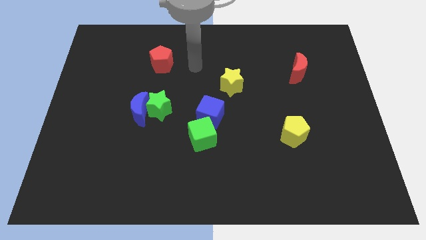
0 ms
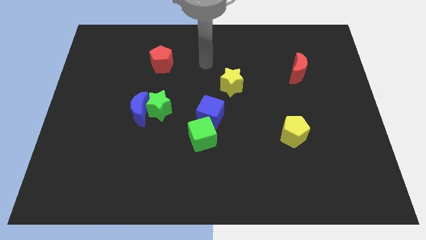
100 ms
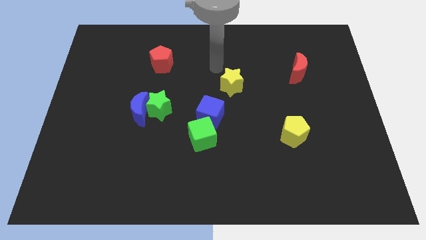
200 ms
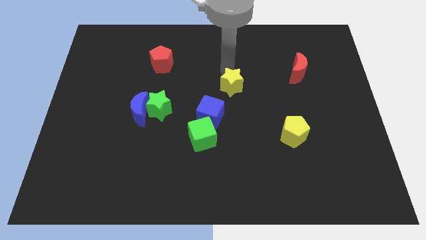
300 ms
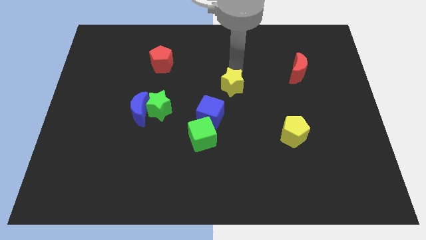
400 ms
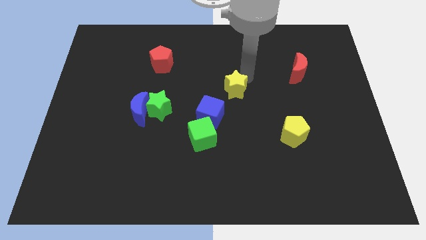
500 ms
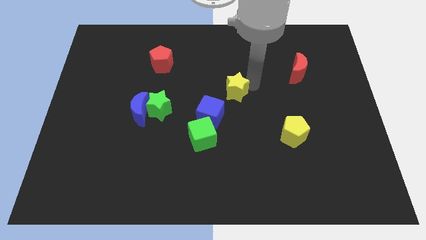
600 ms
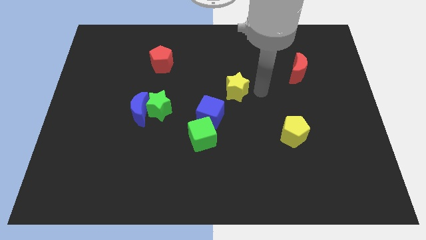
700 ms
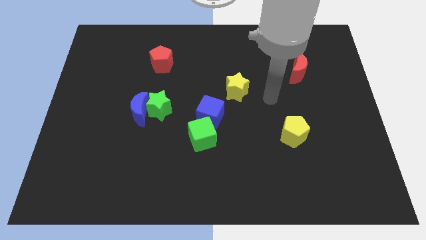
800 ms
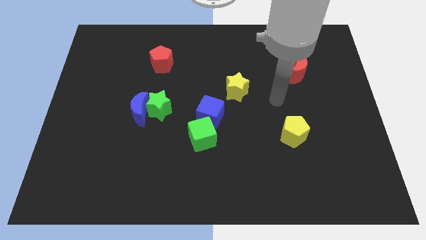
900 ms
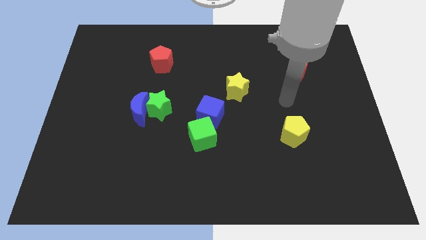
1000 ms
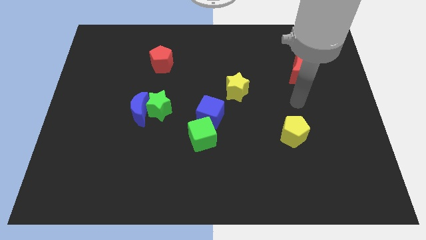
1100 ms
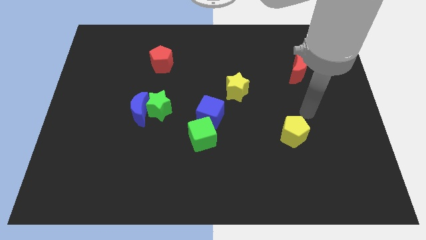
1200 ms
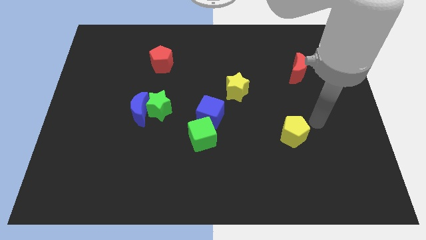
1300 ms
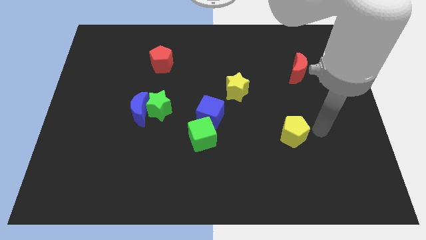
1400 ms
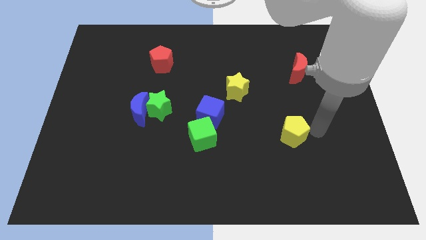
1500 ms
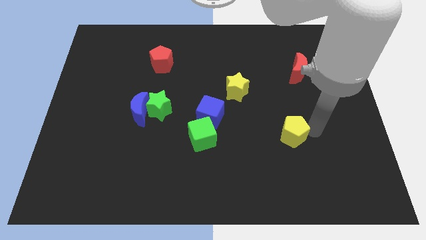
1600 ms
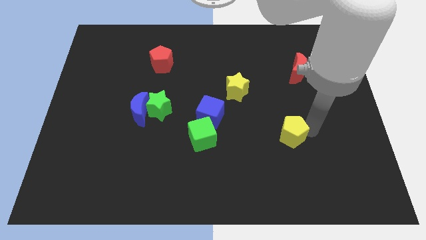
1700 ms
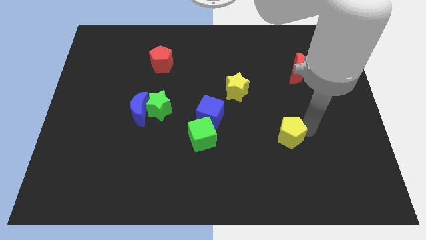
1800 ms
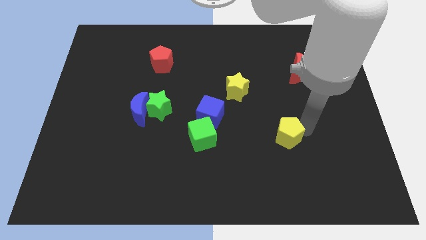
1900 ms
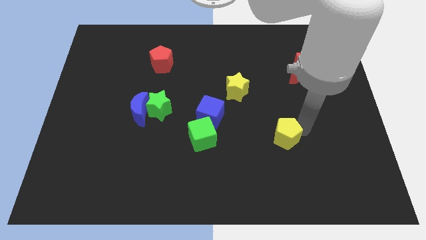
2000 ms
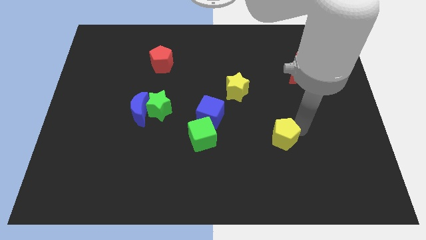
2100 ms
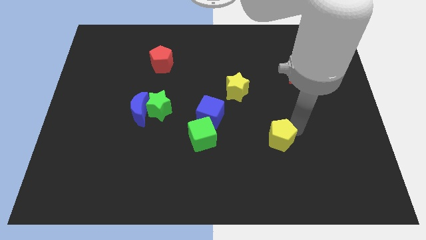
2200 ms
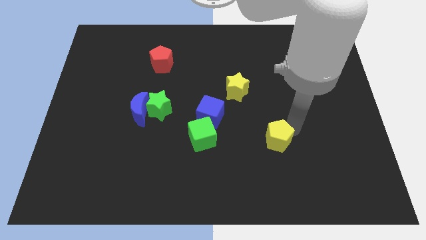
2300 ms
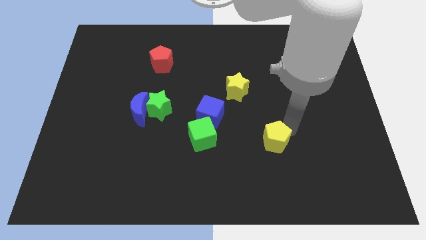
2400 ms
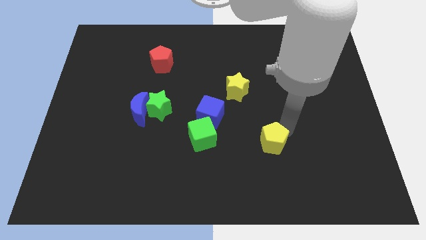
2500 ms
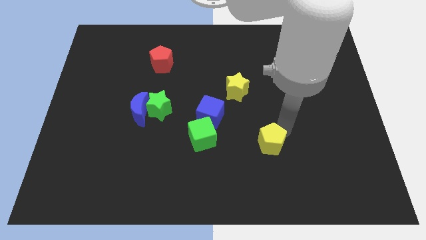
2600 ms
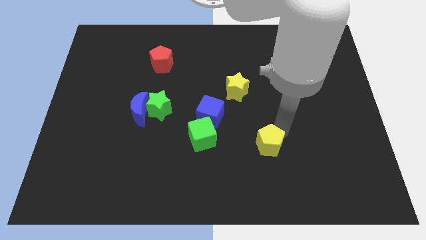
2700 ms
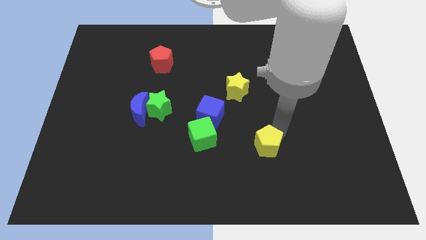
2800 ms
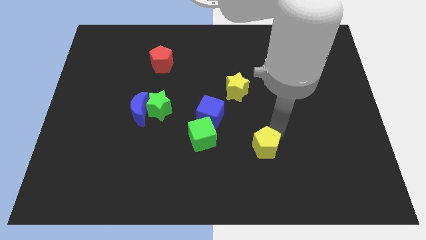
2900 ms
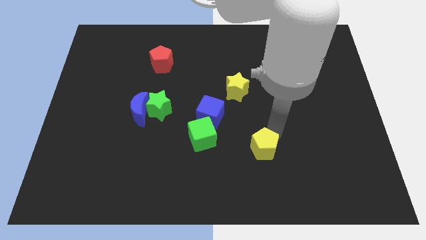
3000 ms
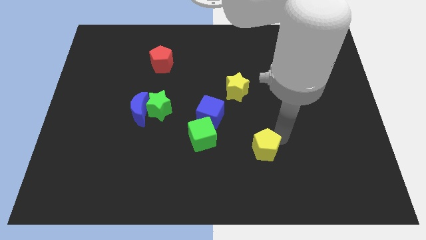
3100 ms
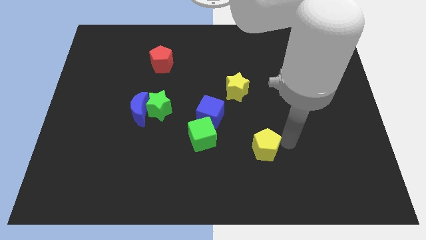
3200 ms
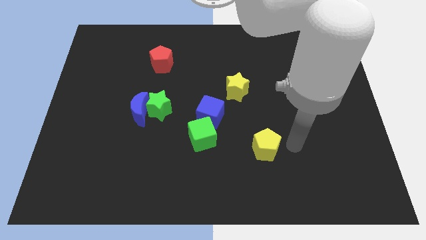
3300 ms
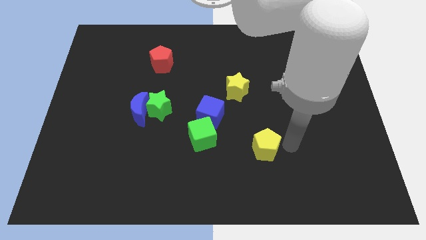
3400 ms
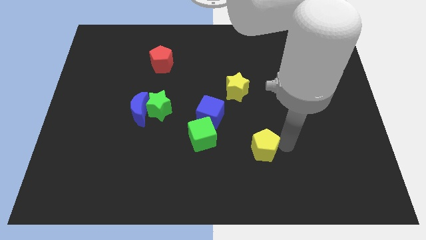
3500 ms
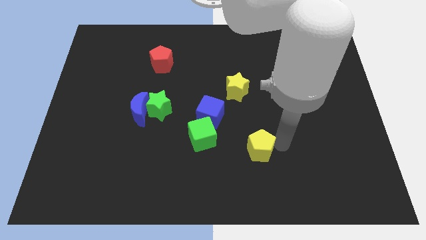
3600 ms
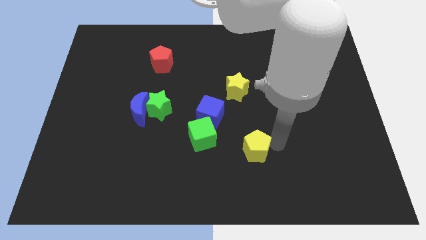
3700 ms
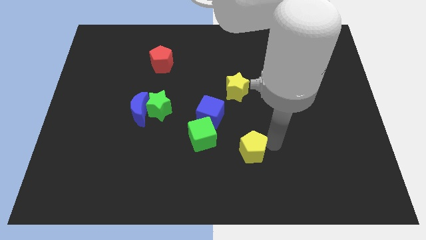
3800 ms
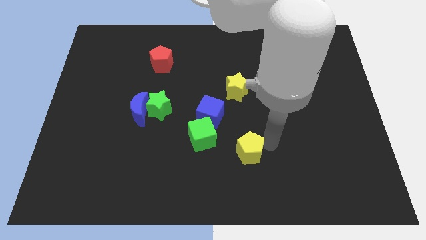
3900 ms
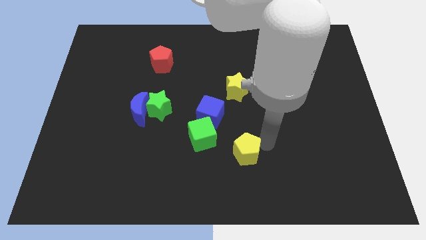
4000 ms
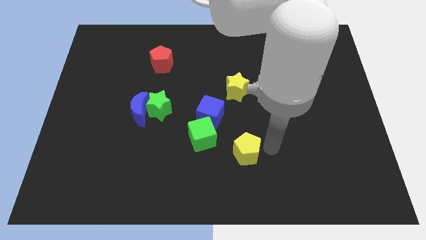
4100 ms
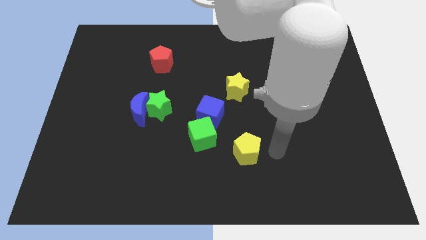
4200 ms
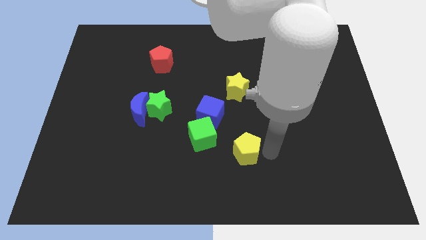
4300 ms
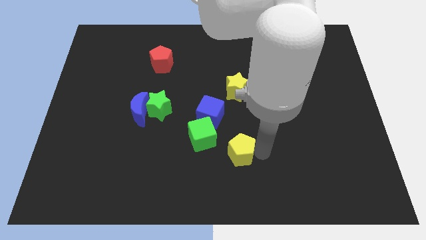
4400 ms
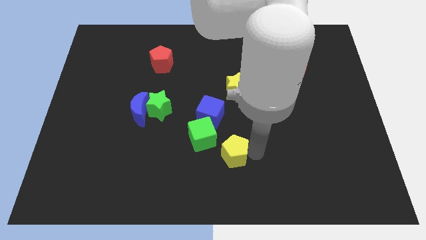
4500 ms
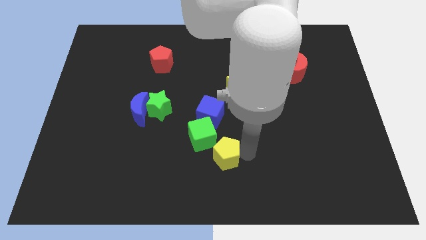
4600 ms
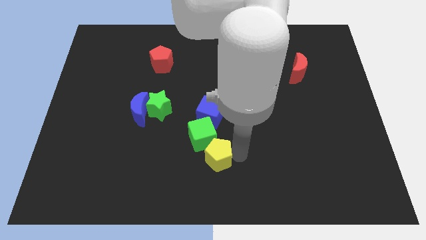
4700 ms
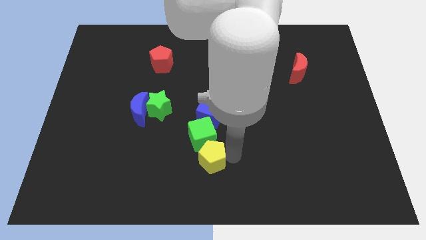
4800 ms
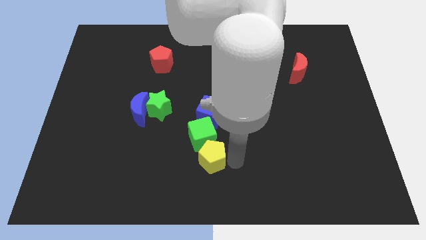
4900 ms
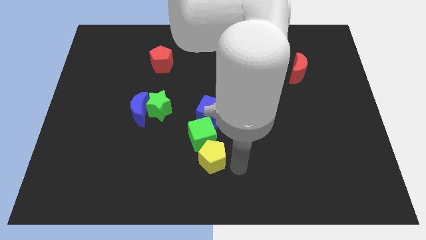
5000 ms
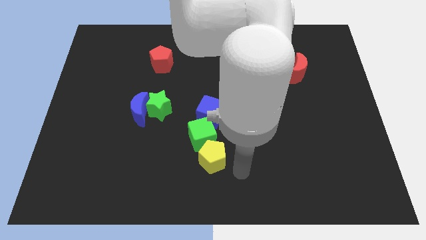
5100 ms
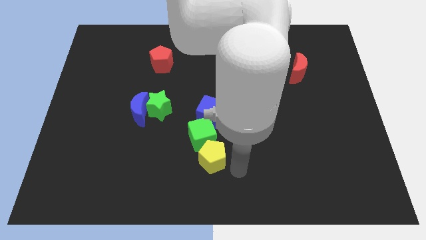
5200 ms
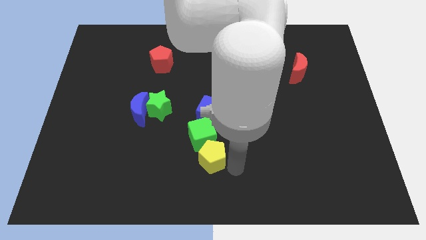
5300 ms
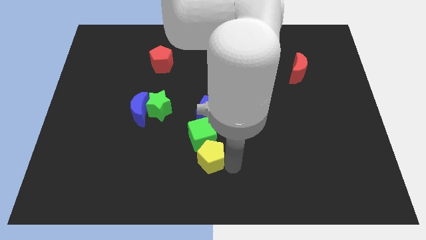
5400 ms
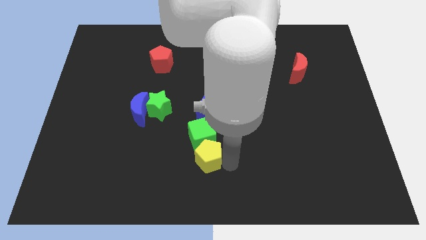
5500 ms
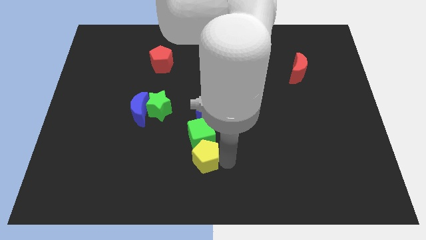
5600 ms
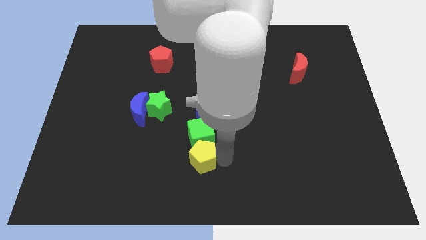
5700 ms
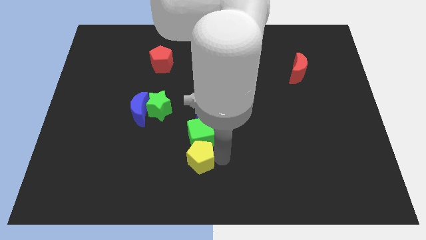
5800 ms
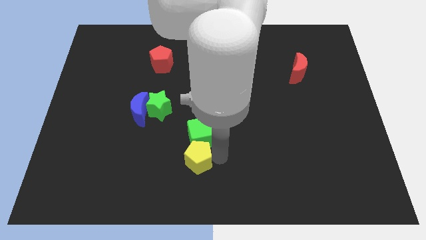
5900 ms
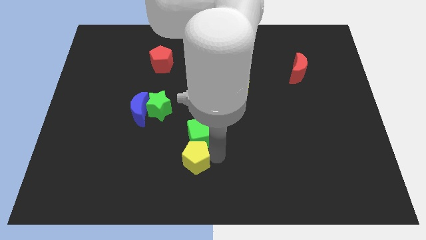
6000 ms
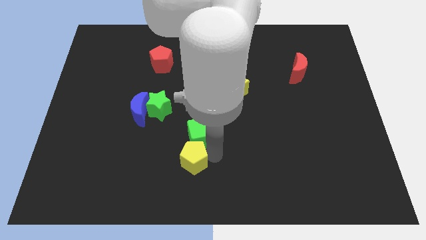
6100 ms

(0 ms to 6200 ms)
push the yellow pentagon to the left

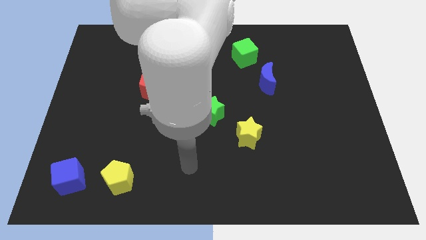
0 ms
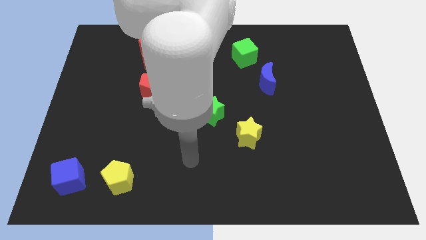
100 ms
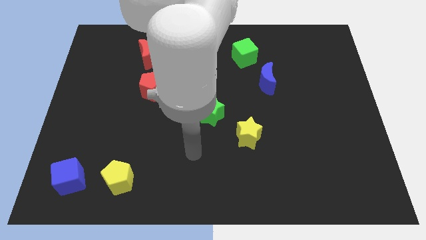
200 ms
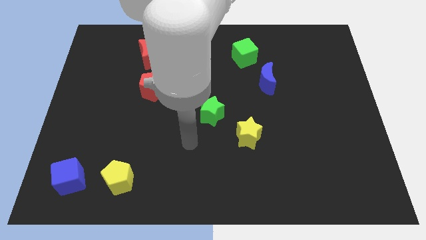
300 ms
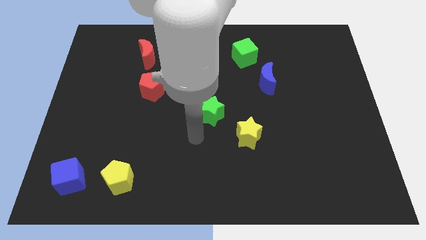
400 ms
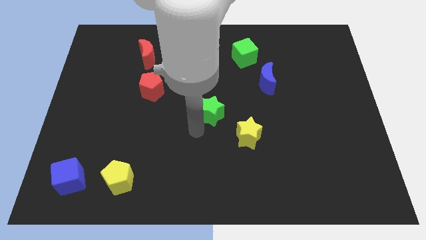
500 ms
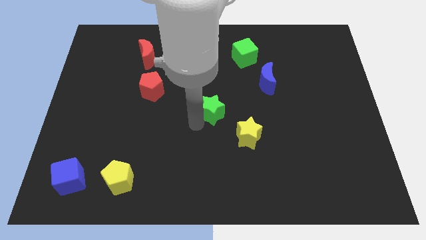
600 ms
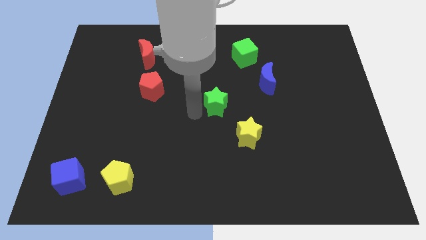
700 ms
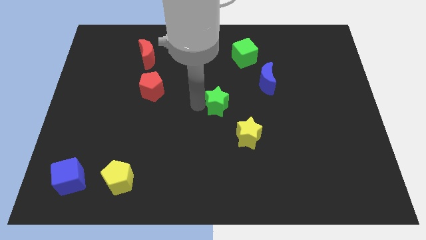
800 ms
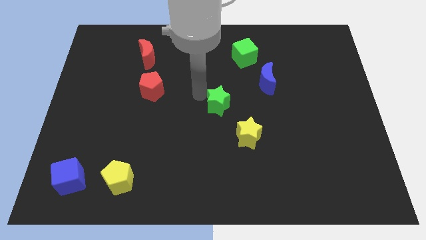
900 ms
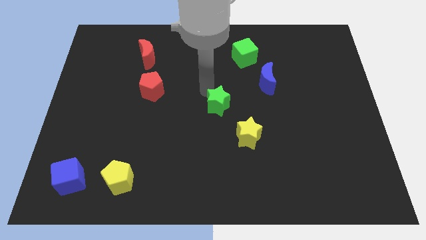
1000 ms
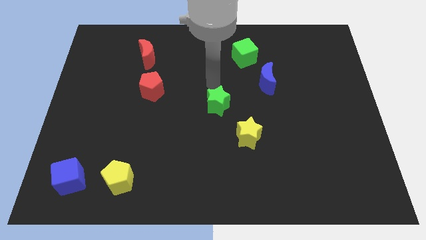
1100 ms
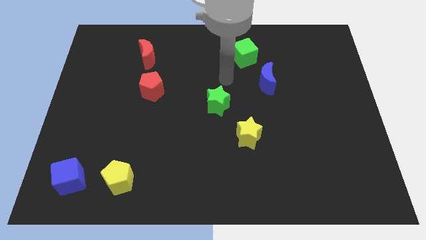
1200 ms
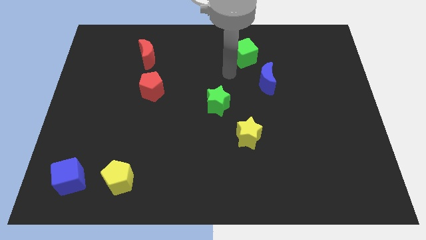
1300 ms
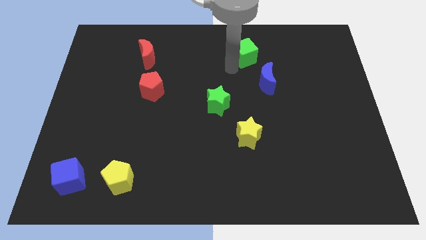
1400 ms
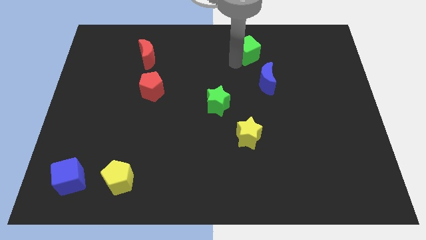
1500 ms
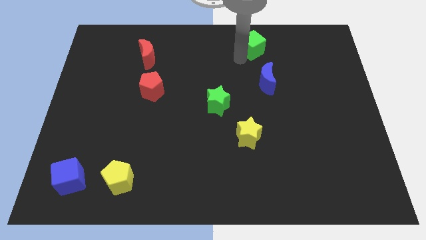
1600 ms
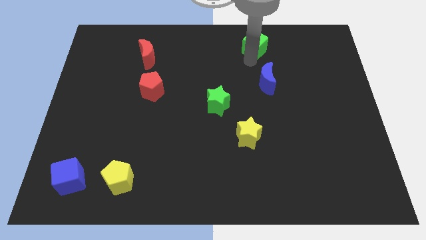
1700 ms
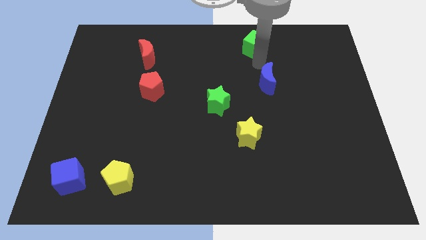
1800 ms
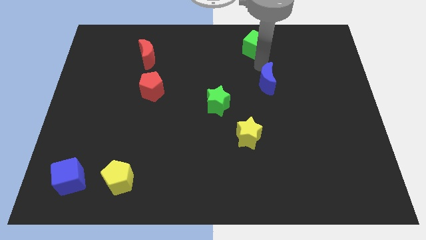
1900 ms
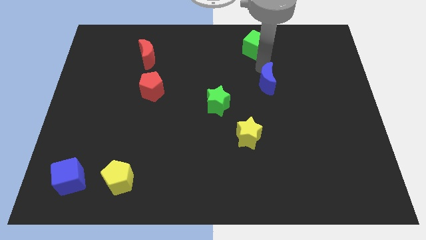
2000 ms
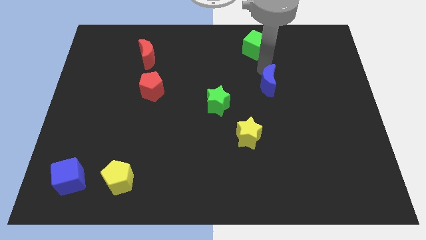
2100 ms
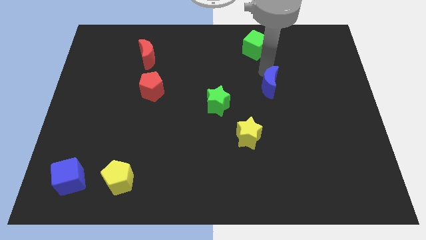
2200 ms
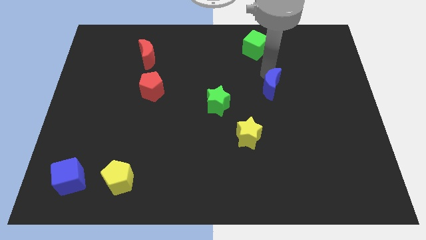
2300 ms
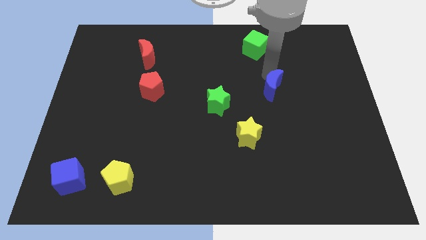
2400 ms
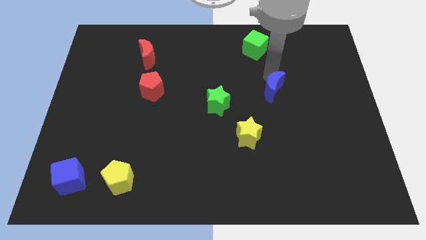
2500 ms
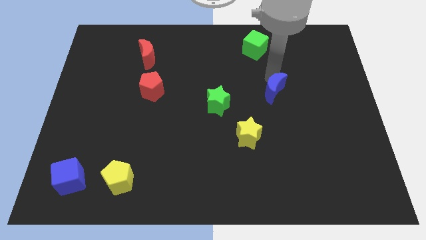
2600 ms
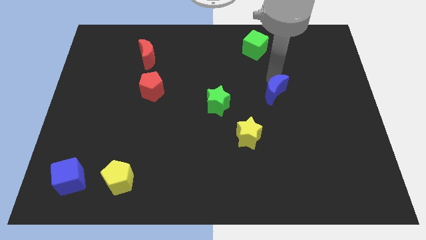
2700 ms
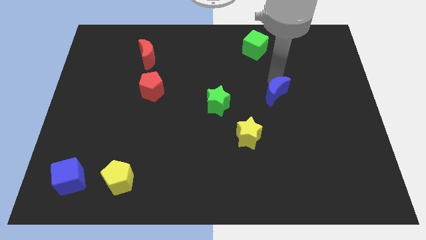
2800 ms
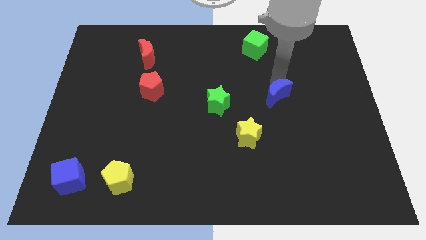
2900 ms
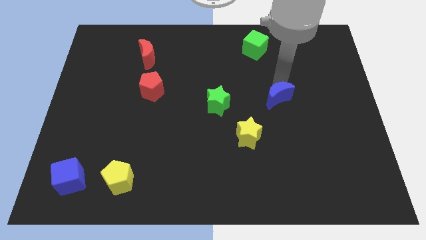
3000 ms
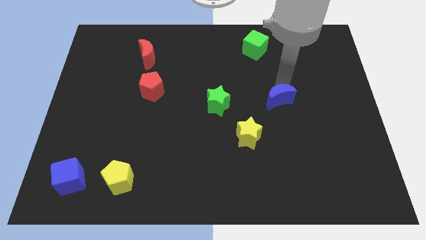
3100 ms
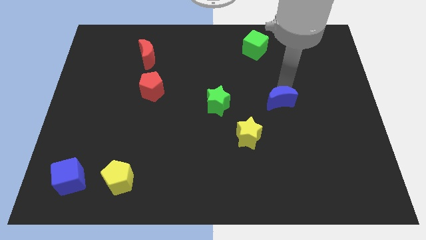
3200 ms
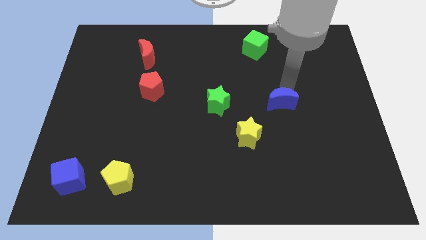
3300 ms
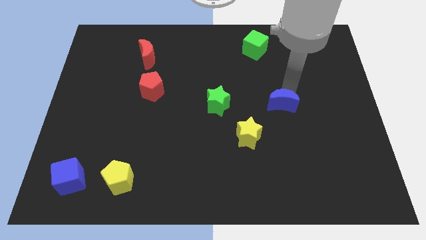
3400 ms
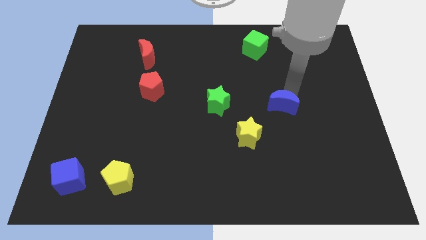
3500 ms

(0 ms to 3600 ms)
push the blue moon down a little bit
